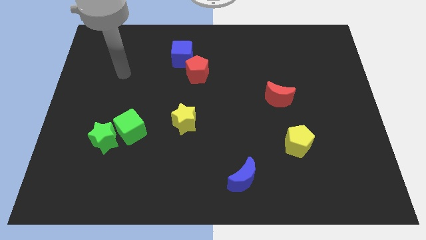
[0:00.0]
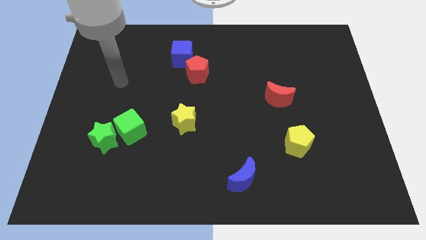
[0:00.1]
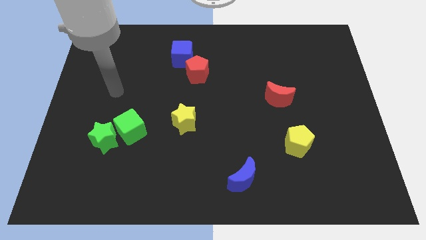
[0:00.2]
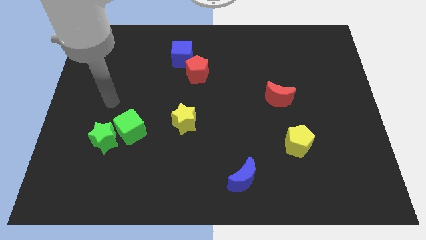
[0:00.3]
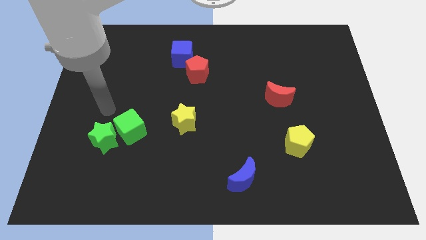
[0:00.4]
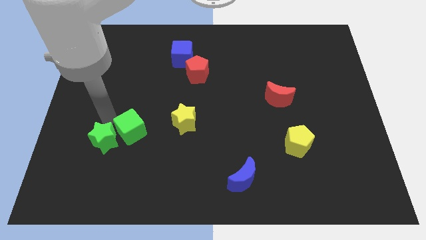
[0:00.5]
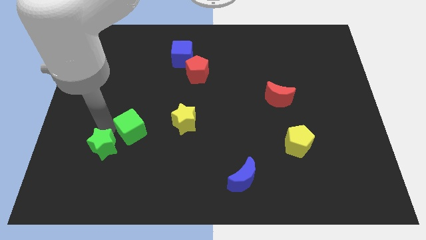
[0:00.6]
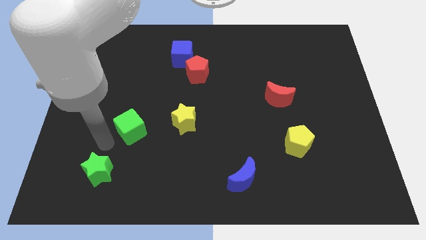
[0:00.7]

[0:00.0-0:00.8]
separate the green cube from the green star

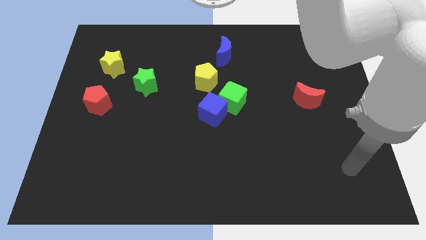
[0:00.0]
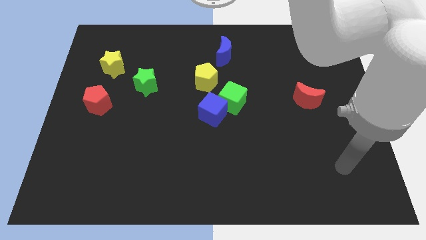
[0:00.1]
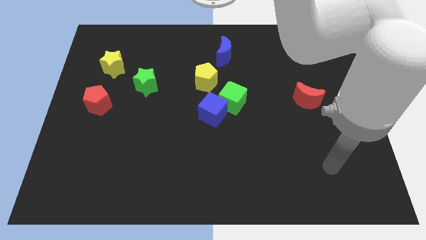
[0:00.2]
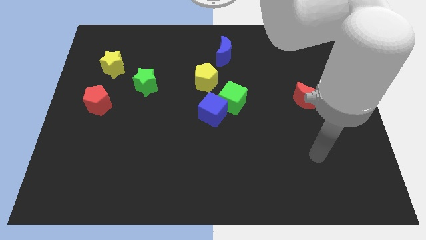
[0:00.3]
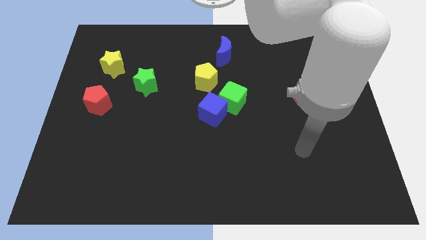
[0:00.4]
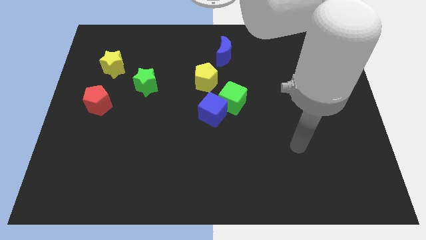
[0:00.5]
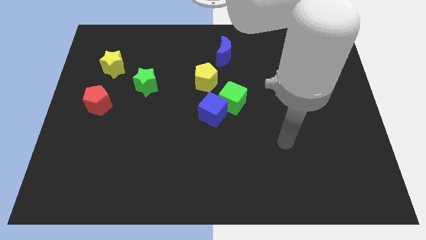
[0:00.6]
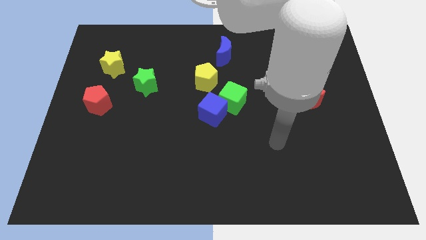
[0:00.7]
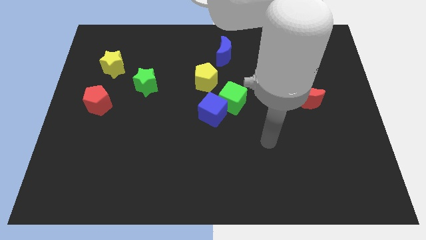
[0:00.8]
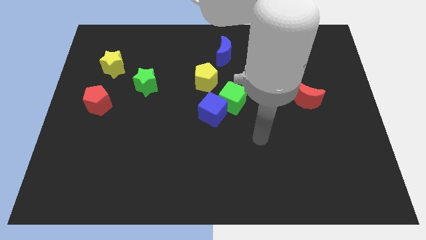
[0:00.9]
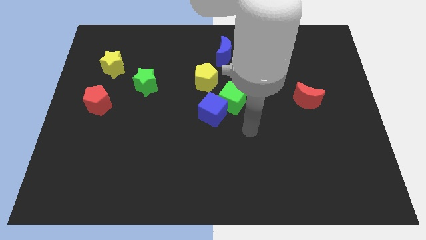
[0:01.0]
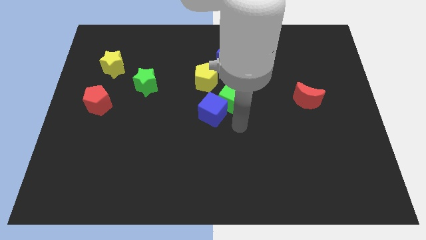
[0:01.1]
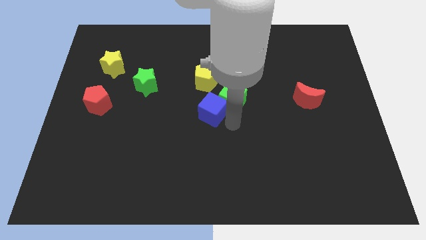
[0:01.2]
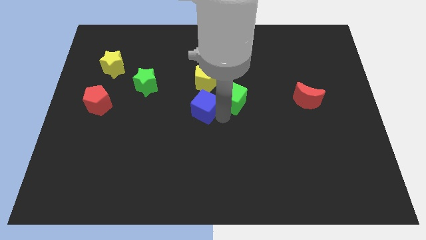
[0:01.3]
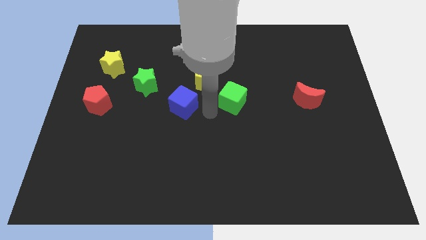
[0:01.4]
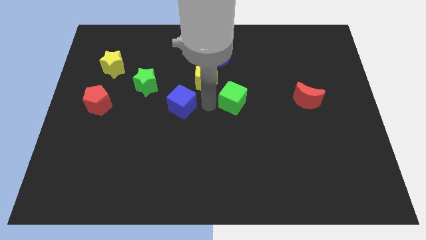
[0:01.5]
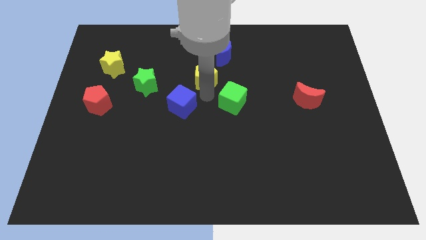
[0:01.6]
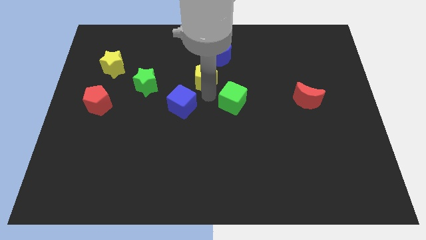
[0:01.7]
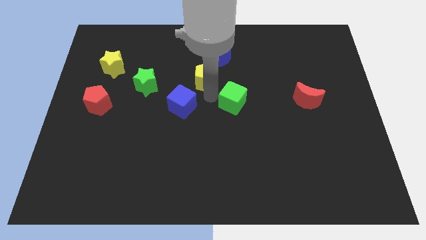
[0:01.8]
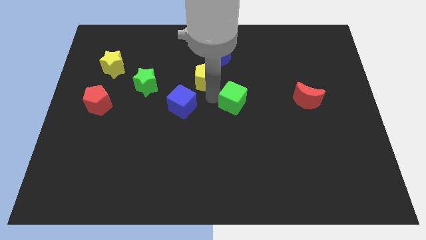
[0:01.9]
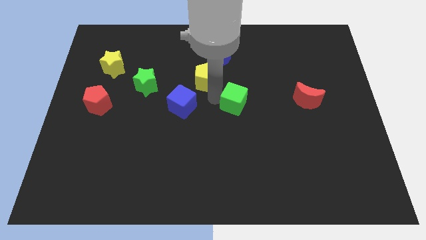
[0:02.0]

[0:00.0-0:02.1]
separate the green cube from the blue cube and yellow pentagon

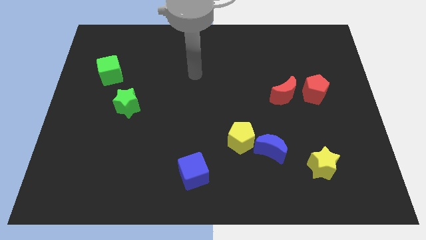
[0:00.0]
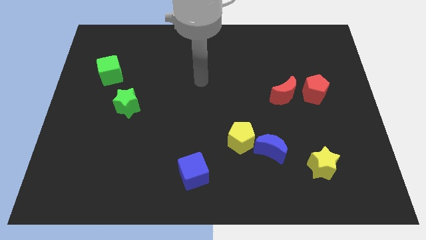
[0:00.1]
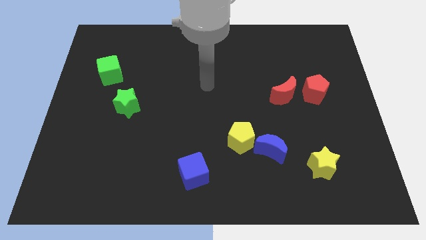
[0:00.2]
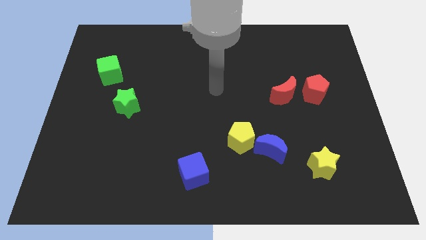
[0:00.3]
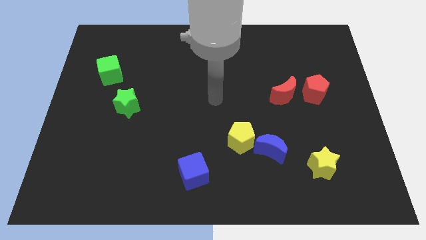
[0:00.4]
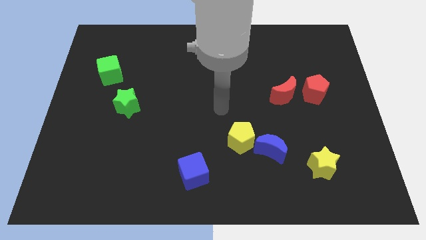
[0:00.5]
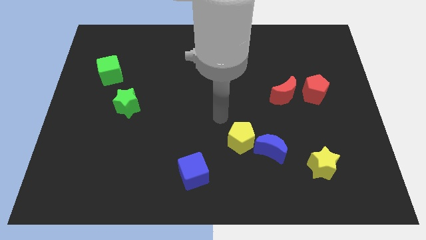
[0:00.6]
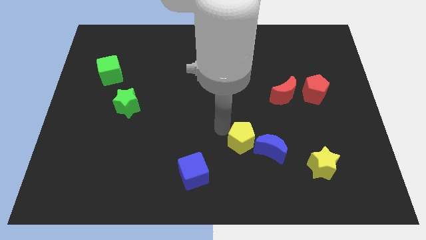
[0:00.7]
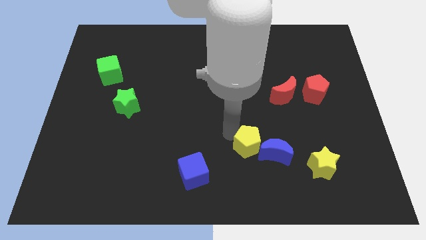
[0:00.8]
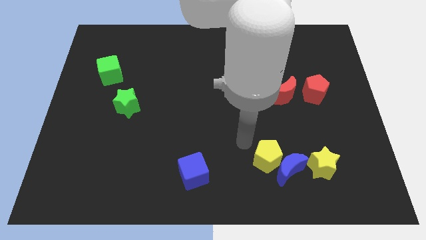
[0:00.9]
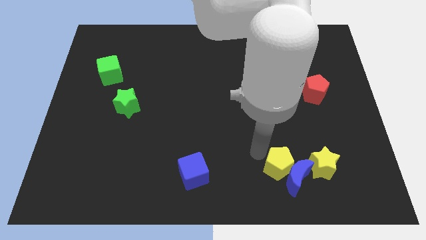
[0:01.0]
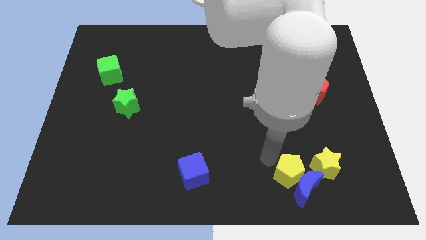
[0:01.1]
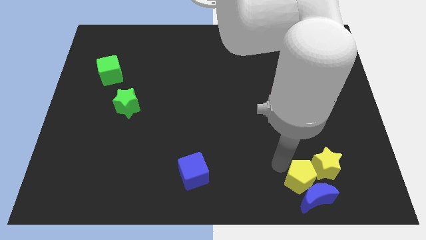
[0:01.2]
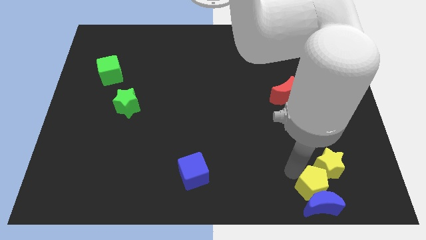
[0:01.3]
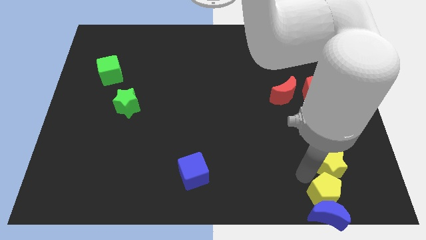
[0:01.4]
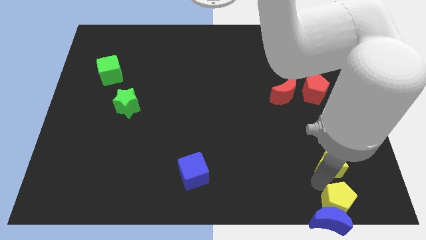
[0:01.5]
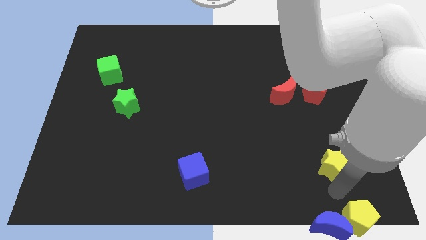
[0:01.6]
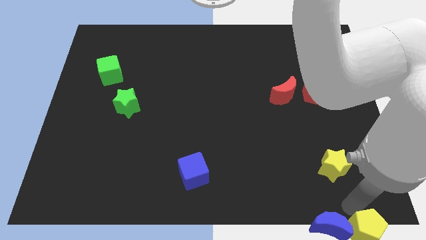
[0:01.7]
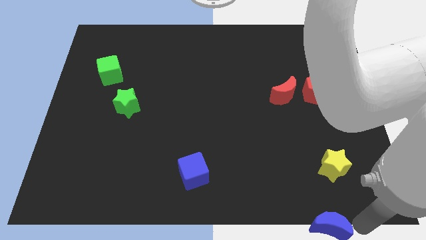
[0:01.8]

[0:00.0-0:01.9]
move the blue moon away from the yellow pentagon

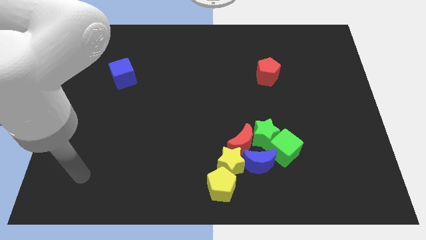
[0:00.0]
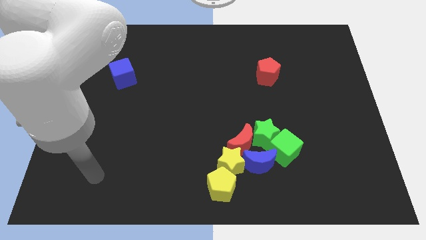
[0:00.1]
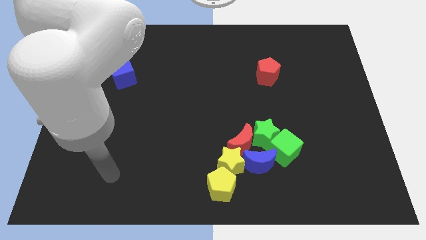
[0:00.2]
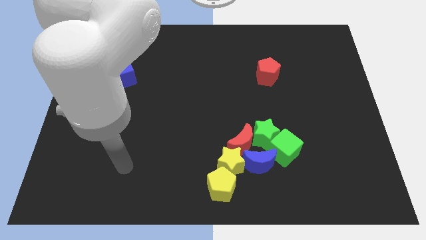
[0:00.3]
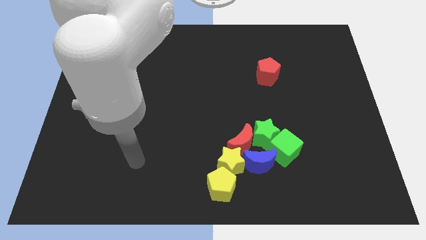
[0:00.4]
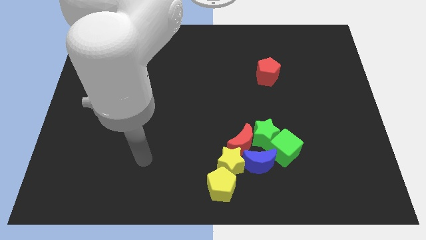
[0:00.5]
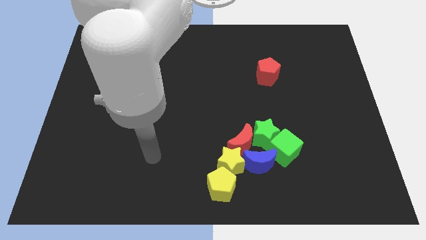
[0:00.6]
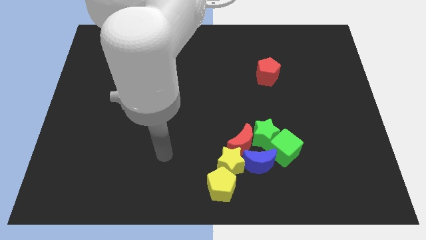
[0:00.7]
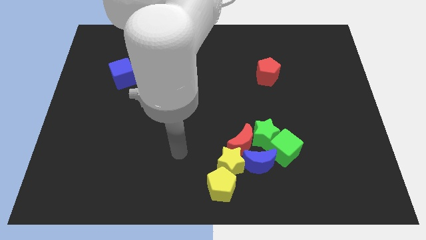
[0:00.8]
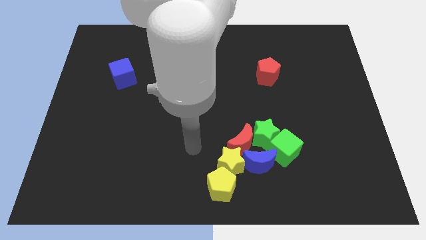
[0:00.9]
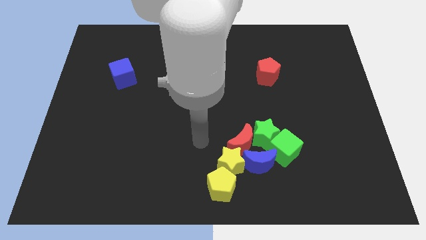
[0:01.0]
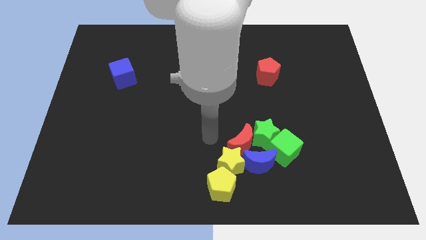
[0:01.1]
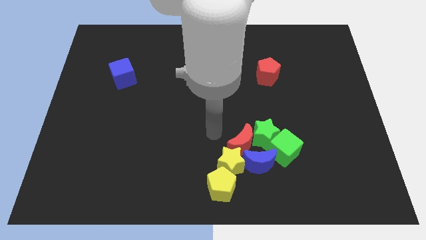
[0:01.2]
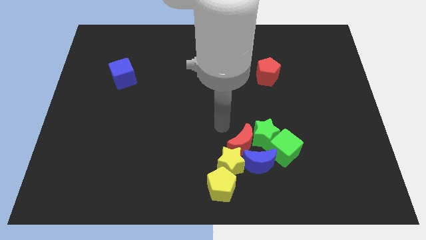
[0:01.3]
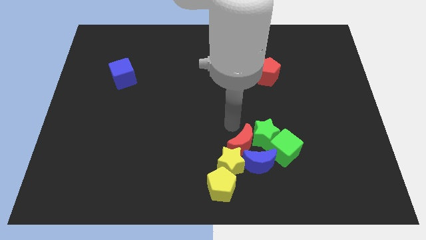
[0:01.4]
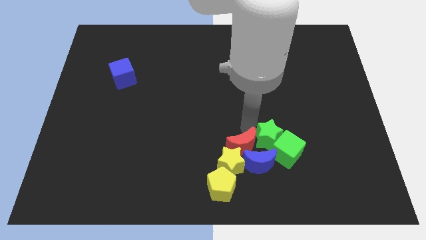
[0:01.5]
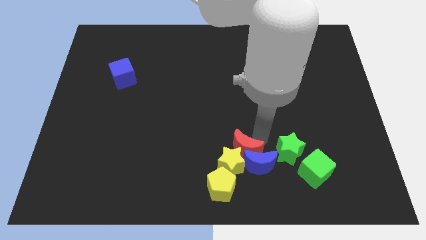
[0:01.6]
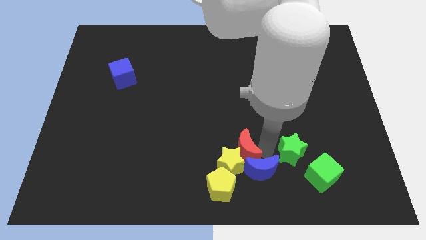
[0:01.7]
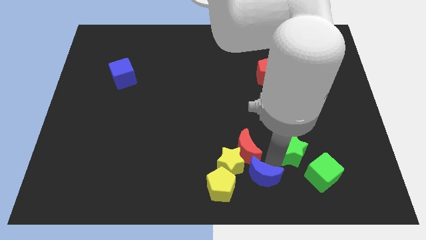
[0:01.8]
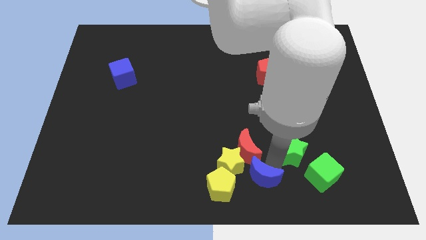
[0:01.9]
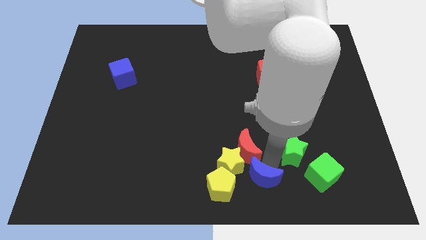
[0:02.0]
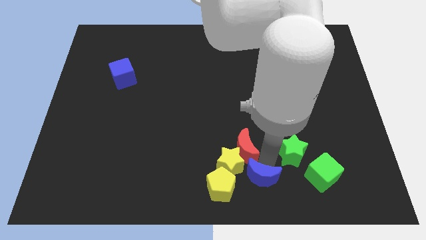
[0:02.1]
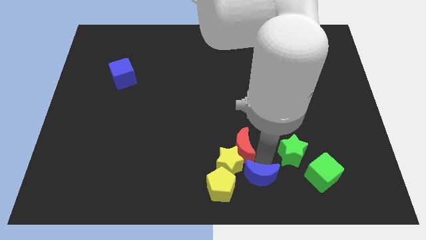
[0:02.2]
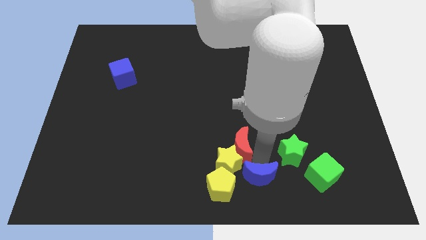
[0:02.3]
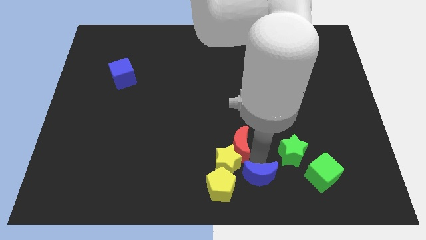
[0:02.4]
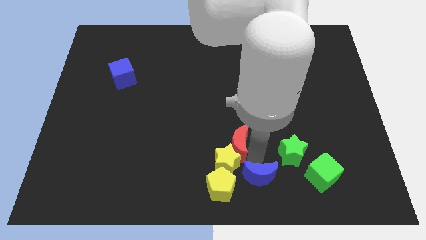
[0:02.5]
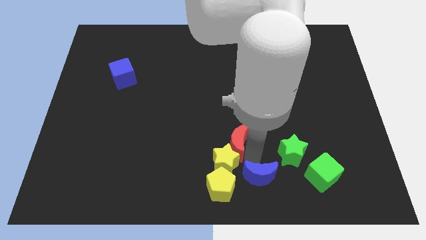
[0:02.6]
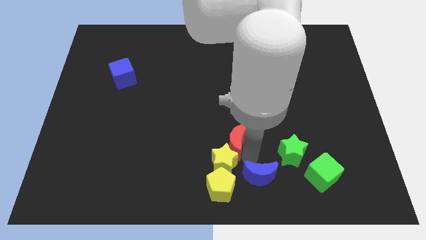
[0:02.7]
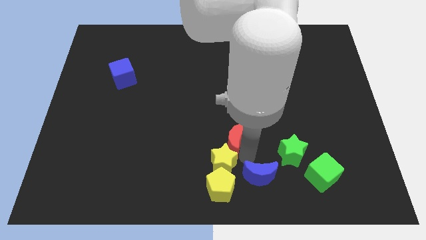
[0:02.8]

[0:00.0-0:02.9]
move the red moon away from the clump

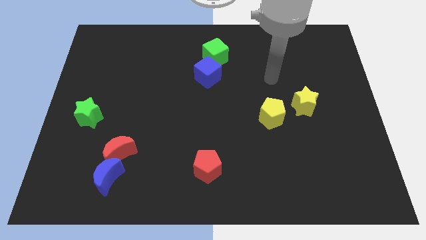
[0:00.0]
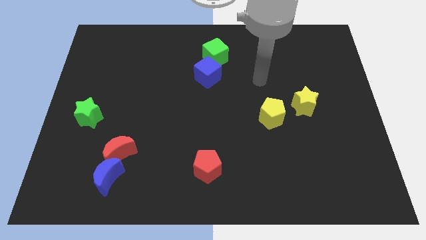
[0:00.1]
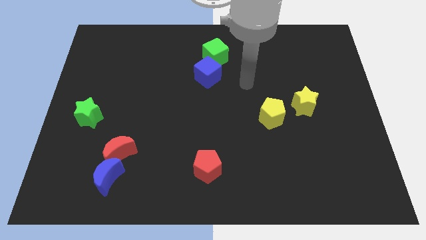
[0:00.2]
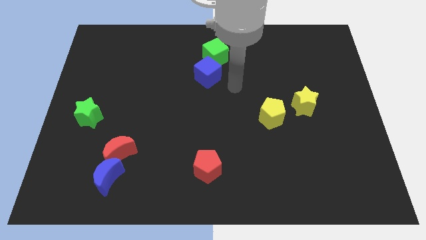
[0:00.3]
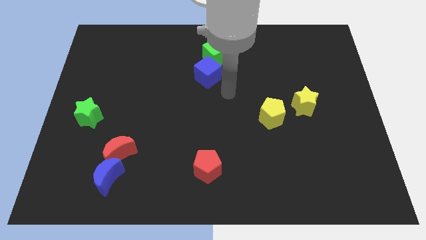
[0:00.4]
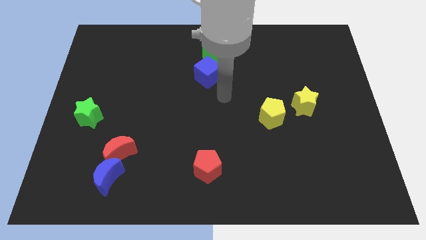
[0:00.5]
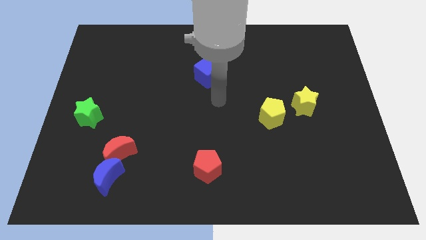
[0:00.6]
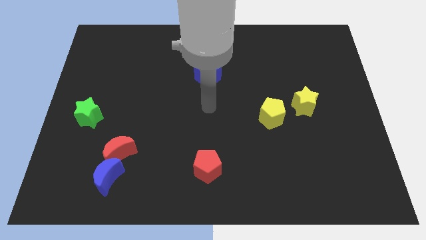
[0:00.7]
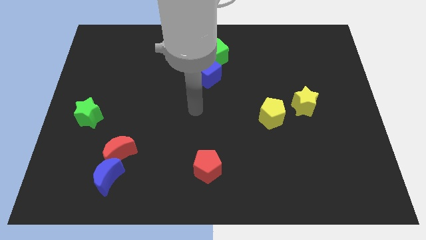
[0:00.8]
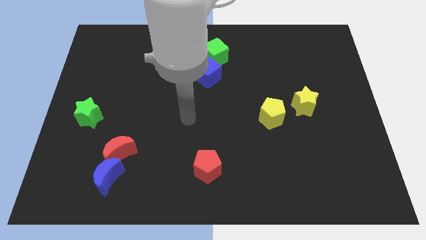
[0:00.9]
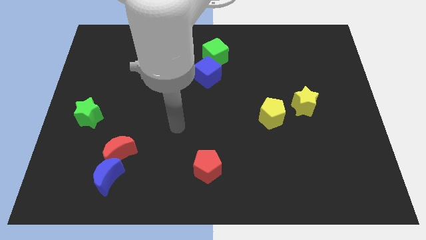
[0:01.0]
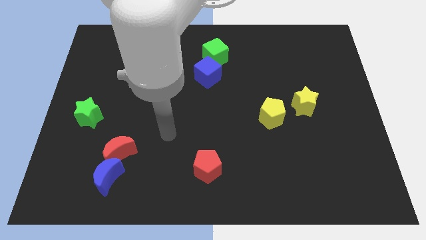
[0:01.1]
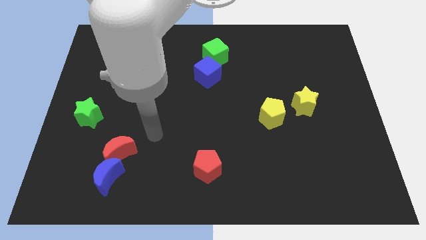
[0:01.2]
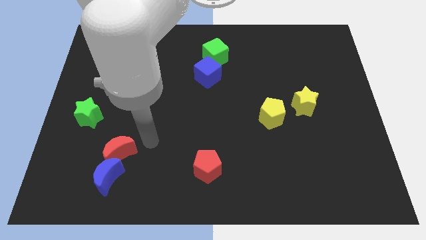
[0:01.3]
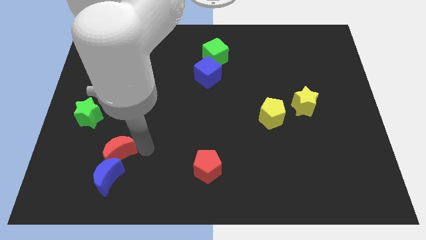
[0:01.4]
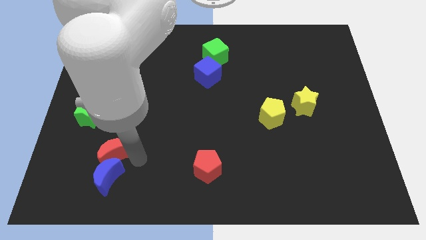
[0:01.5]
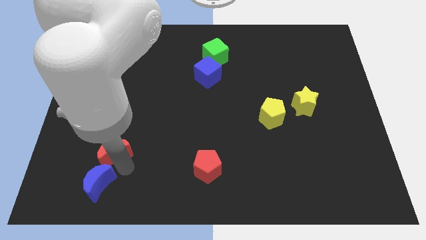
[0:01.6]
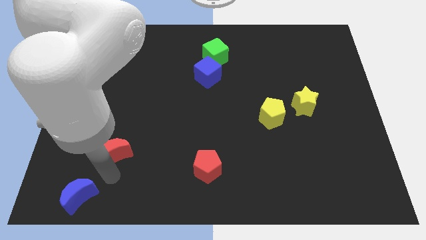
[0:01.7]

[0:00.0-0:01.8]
separate the red moon from the blue moon
